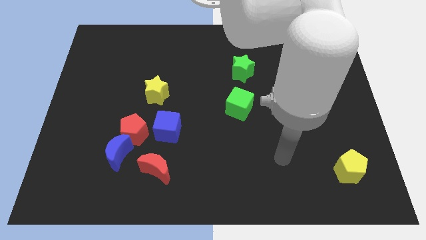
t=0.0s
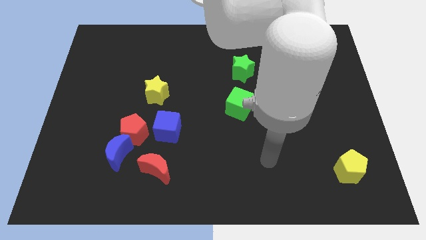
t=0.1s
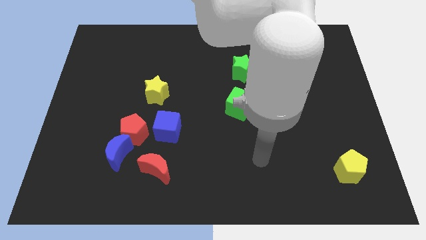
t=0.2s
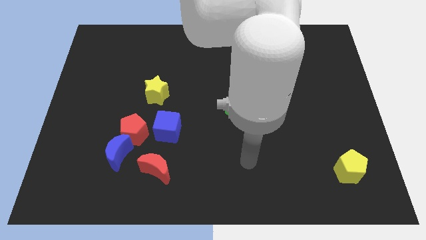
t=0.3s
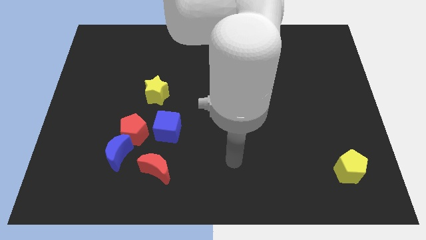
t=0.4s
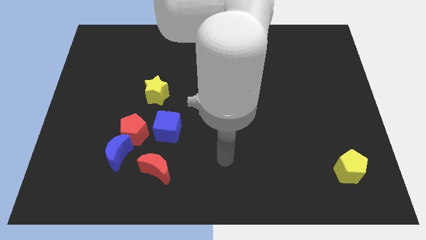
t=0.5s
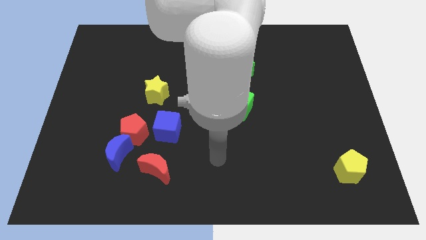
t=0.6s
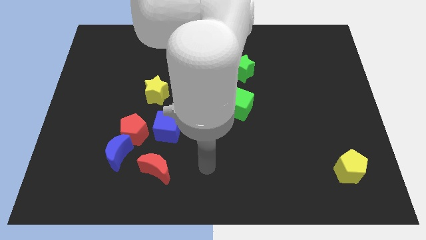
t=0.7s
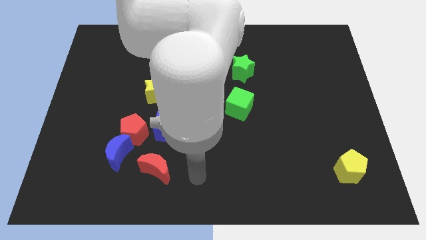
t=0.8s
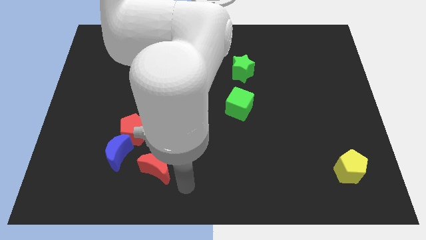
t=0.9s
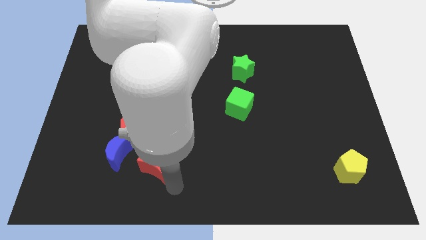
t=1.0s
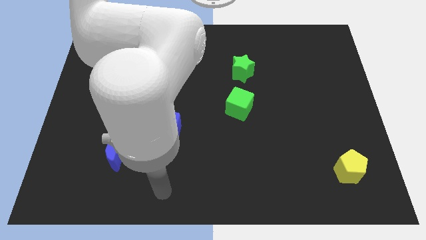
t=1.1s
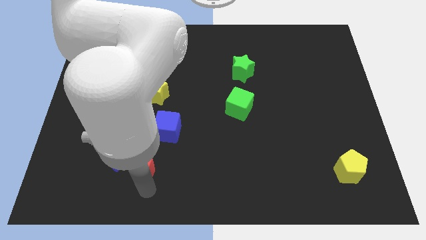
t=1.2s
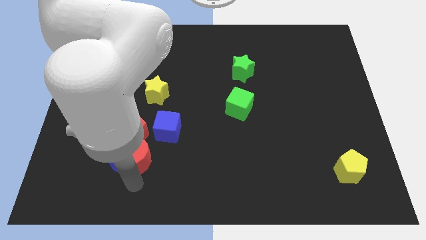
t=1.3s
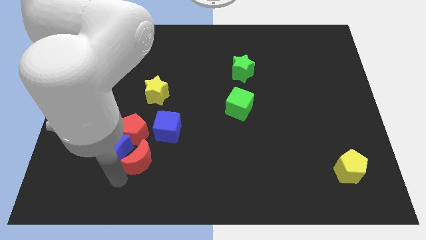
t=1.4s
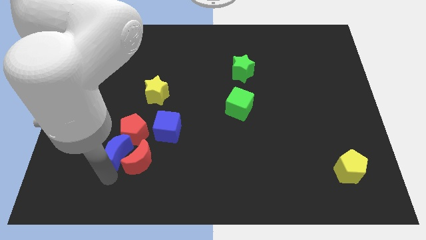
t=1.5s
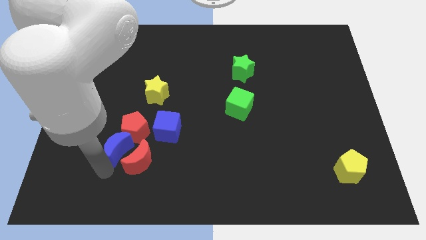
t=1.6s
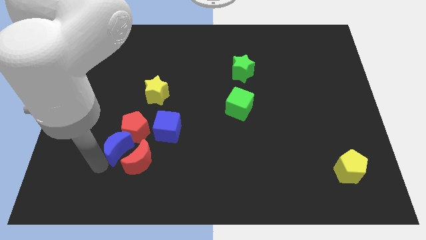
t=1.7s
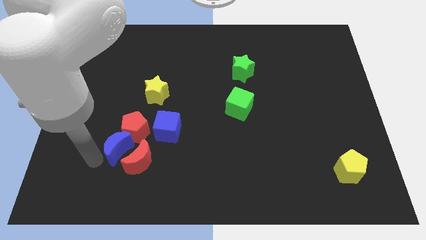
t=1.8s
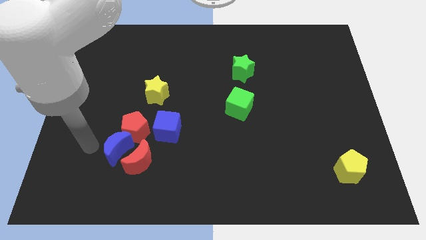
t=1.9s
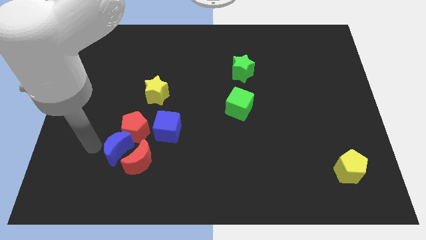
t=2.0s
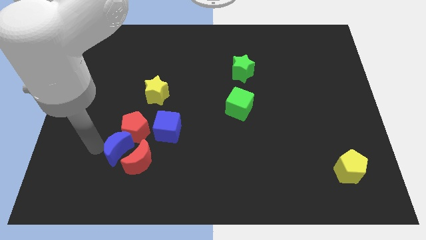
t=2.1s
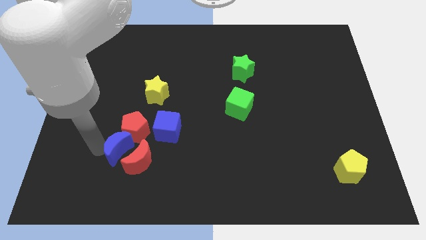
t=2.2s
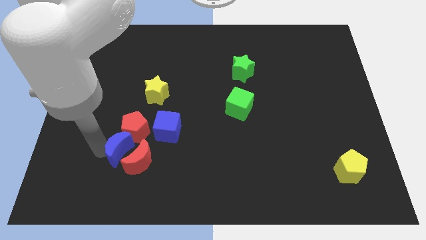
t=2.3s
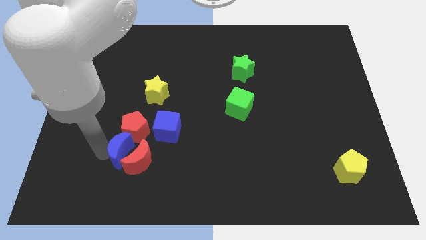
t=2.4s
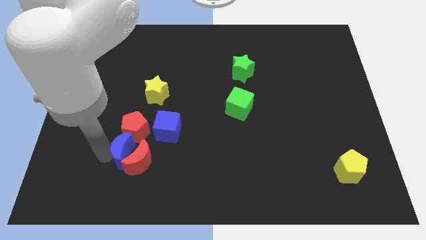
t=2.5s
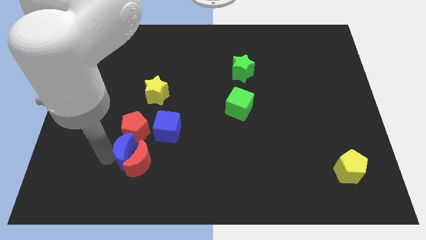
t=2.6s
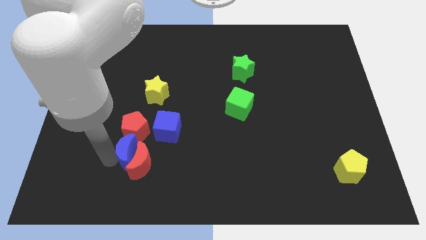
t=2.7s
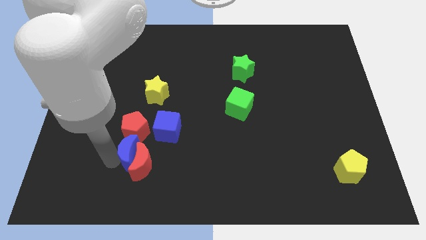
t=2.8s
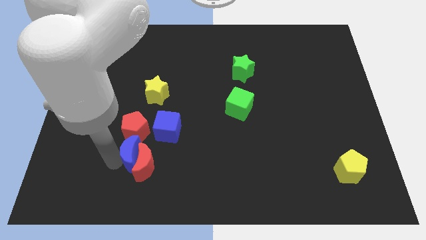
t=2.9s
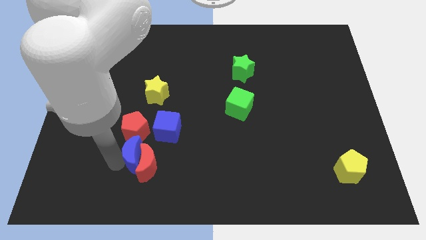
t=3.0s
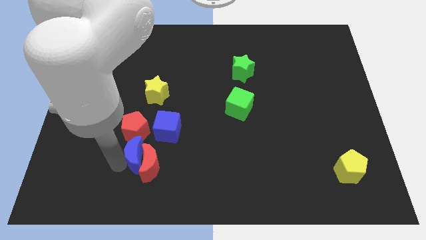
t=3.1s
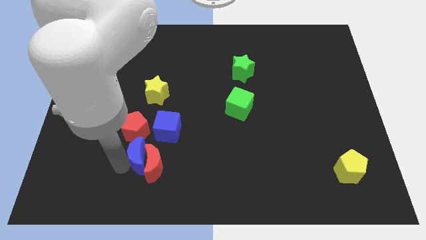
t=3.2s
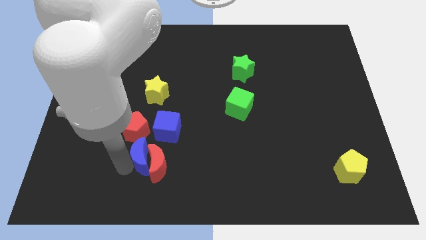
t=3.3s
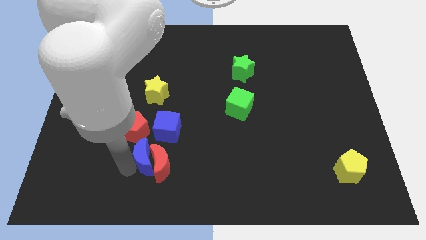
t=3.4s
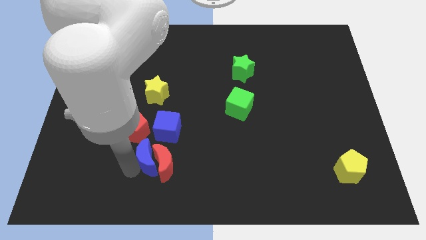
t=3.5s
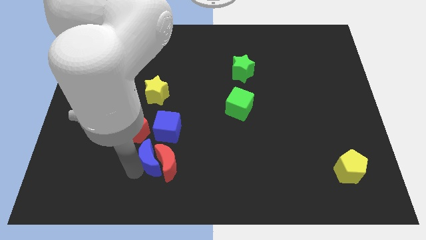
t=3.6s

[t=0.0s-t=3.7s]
move the blue moon right somewhat

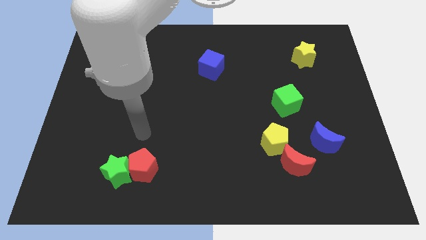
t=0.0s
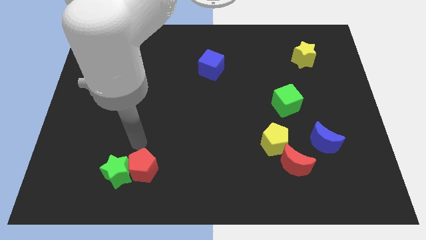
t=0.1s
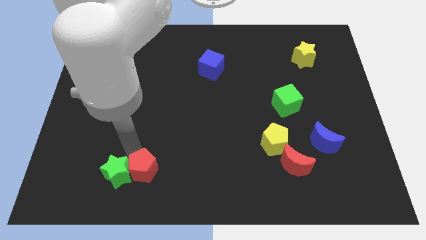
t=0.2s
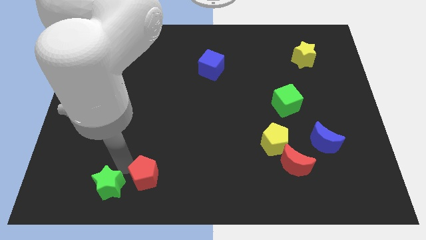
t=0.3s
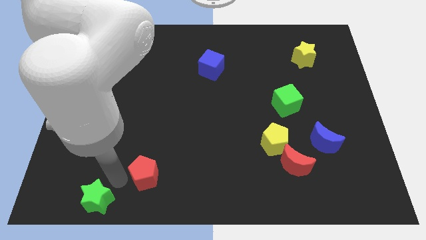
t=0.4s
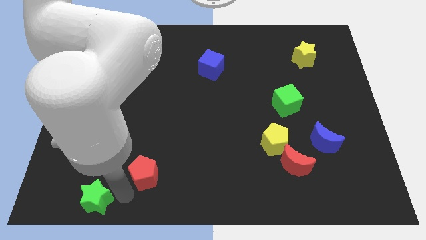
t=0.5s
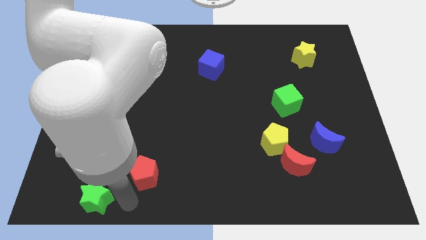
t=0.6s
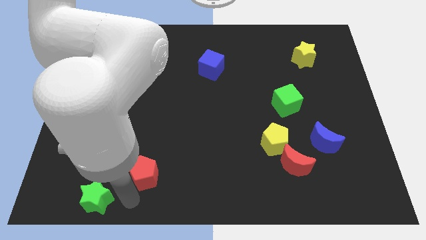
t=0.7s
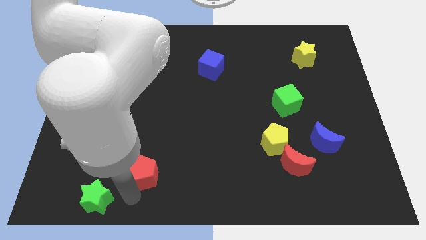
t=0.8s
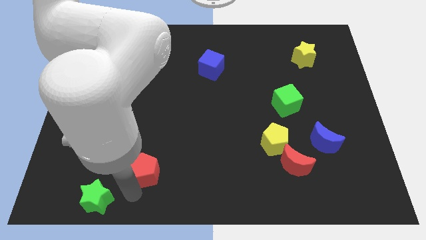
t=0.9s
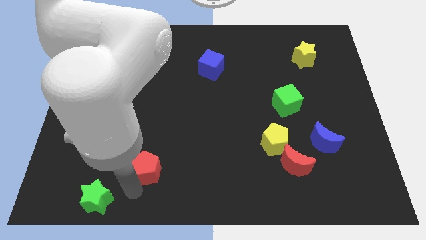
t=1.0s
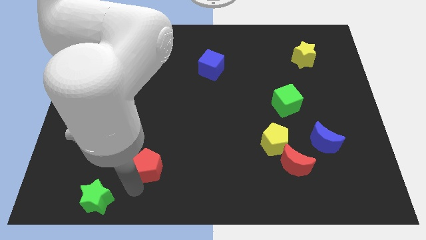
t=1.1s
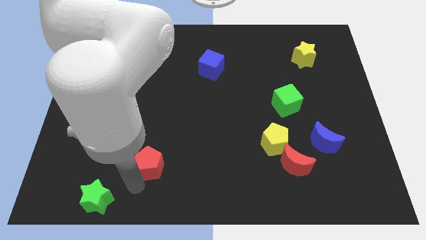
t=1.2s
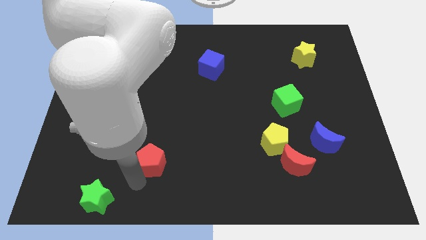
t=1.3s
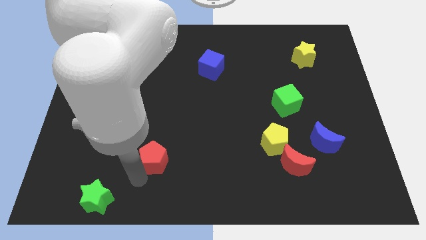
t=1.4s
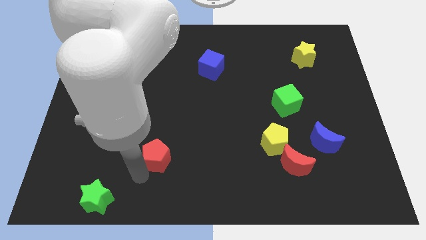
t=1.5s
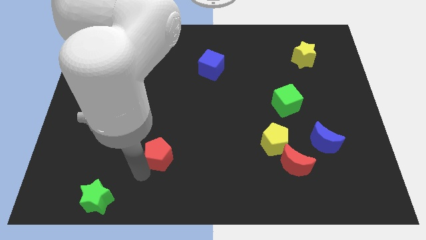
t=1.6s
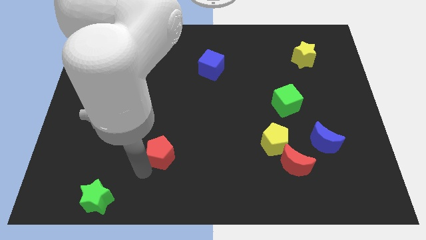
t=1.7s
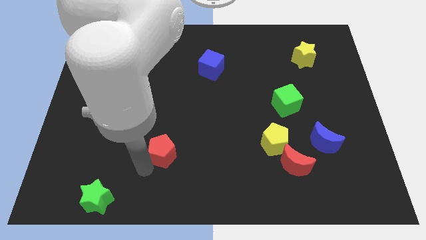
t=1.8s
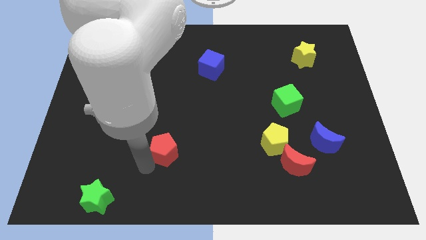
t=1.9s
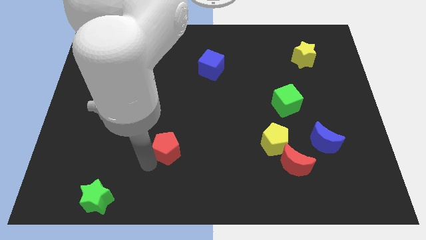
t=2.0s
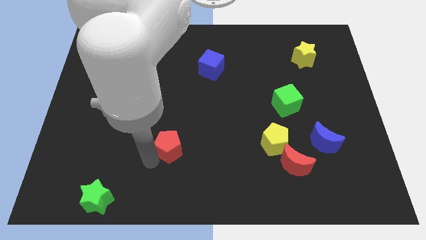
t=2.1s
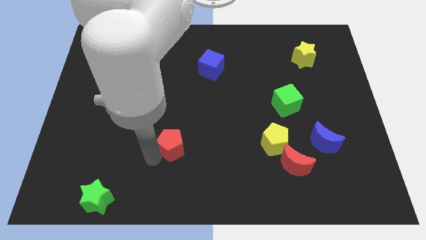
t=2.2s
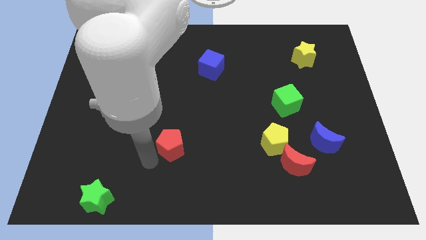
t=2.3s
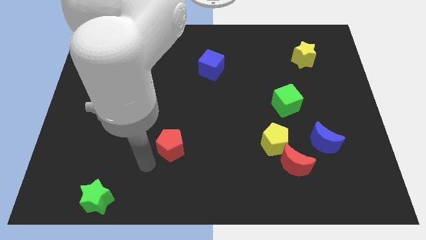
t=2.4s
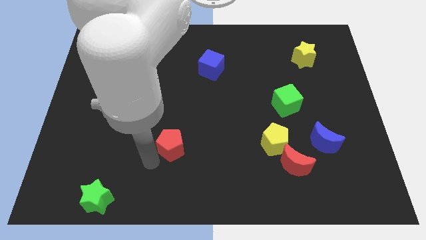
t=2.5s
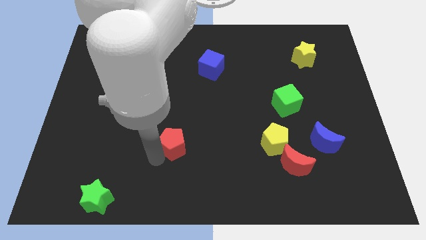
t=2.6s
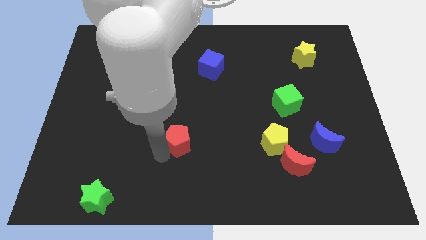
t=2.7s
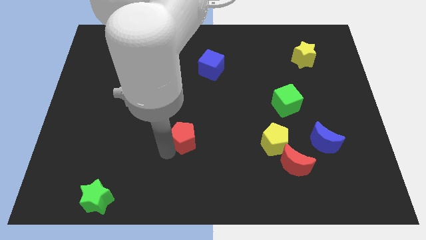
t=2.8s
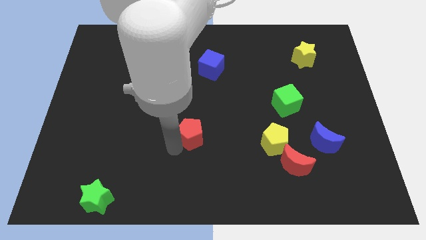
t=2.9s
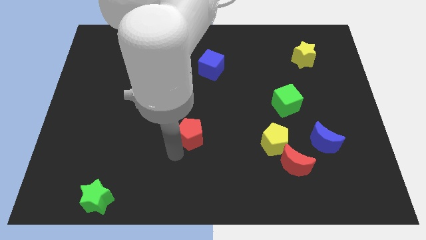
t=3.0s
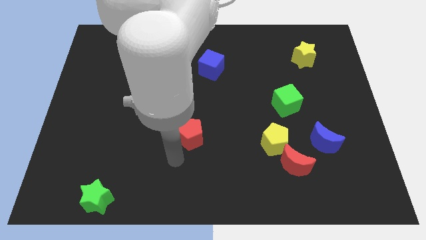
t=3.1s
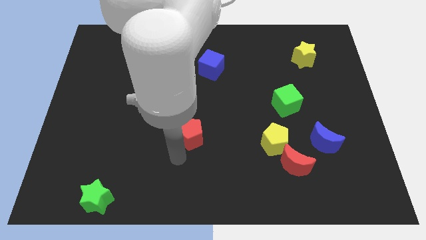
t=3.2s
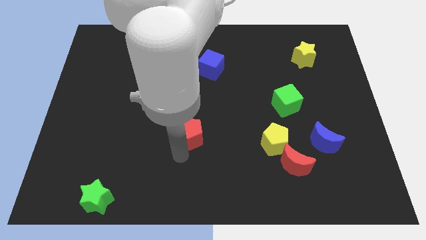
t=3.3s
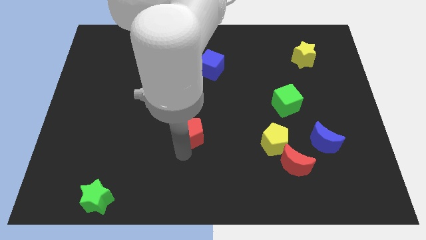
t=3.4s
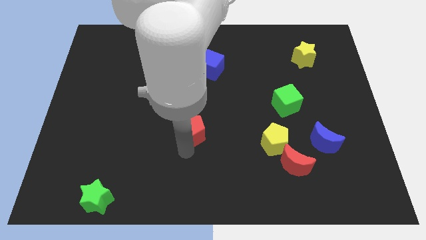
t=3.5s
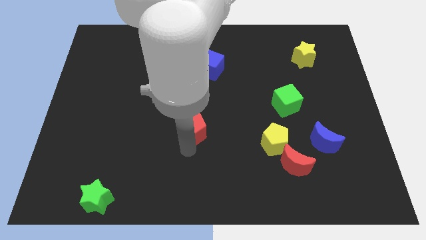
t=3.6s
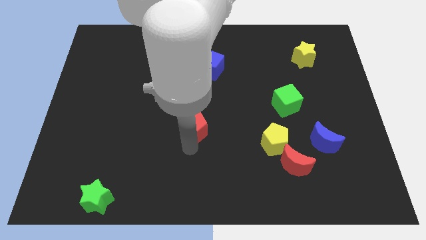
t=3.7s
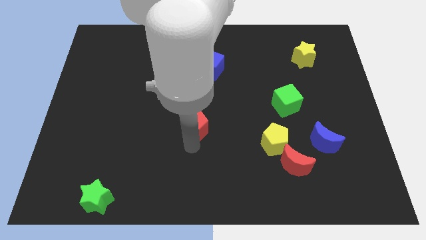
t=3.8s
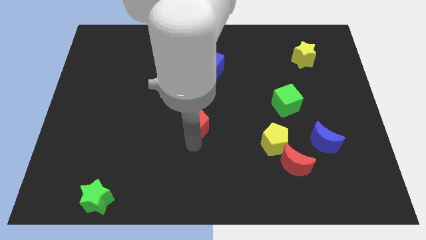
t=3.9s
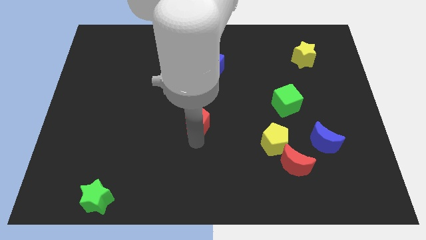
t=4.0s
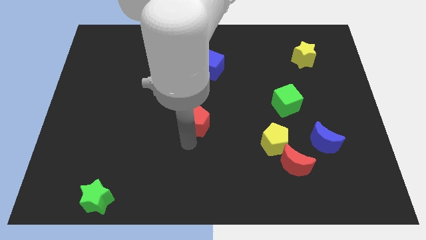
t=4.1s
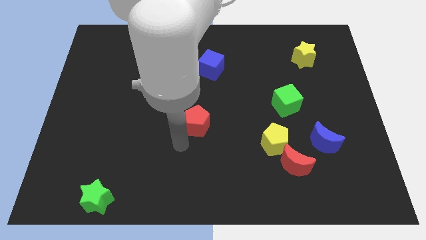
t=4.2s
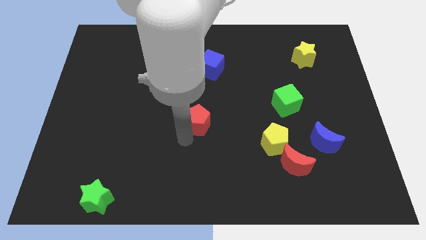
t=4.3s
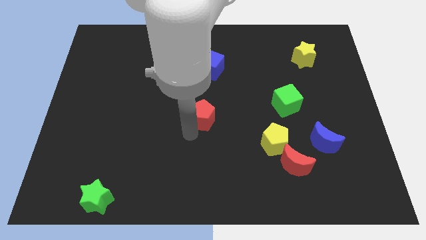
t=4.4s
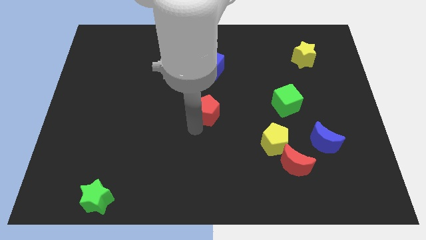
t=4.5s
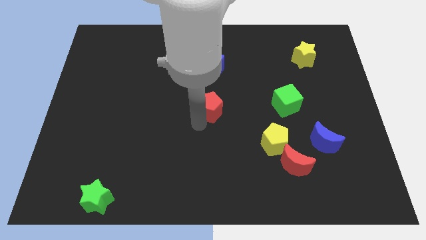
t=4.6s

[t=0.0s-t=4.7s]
slide the red pentagon upwards and right diagonally
